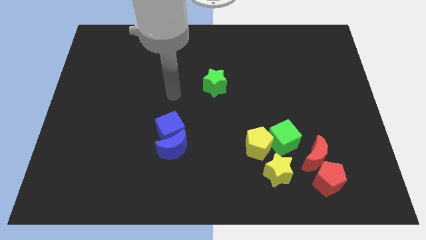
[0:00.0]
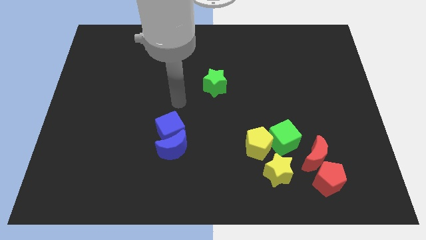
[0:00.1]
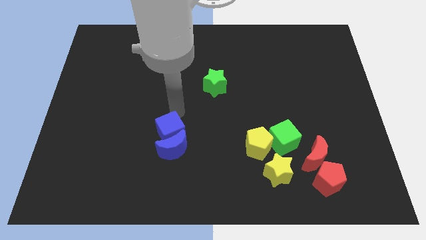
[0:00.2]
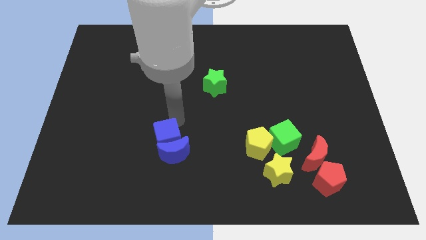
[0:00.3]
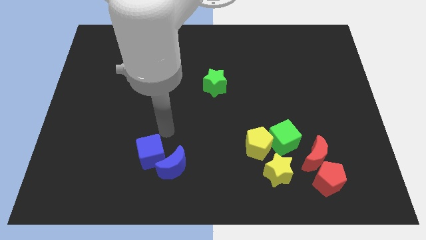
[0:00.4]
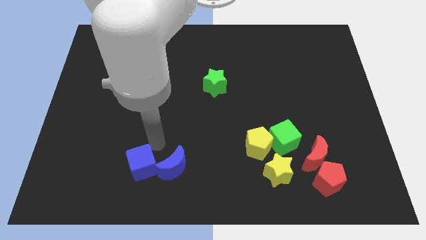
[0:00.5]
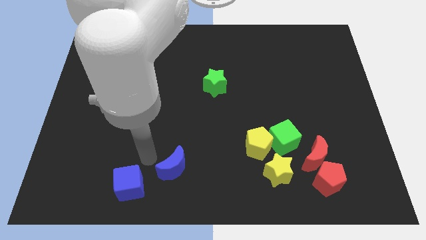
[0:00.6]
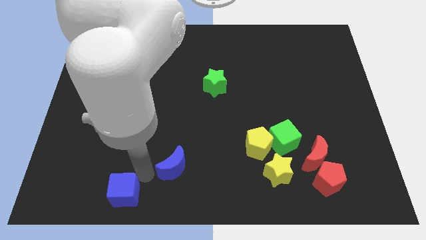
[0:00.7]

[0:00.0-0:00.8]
move the blue moon away from the blue cube

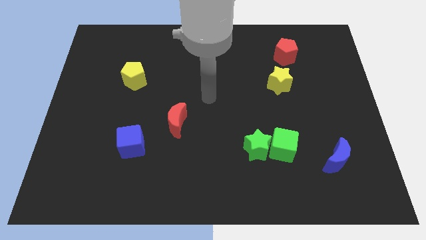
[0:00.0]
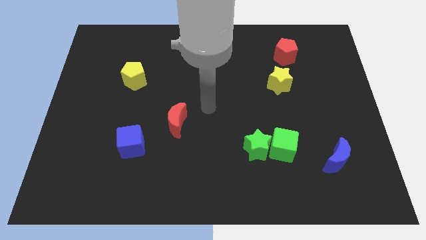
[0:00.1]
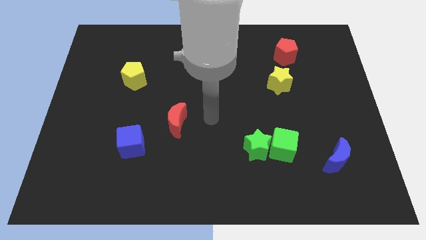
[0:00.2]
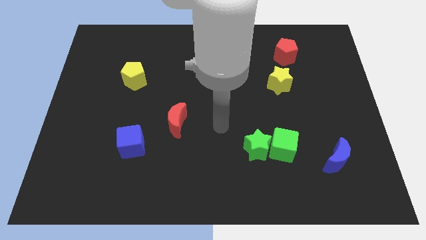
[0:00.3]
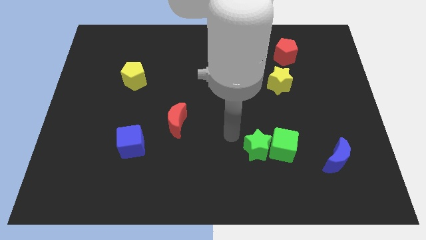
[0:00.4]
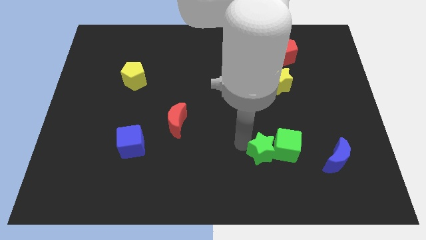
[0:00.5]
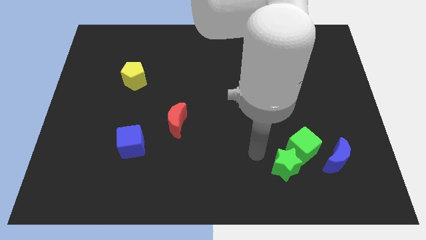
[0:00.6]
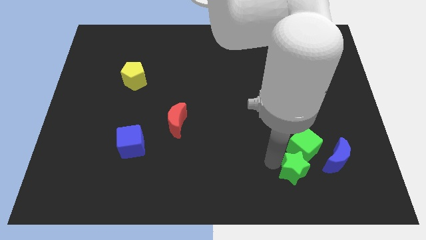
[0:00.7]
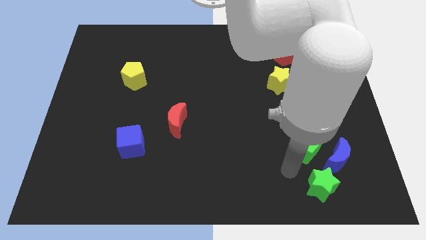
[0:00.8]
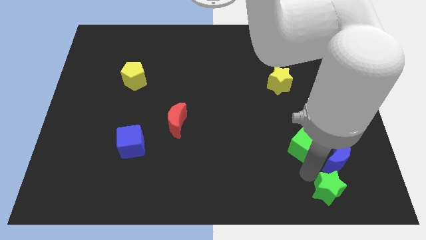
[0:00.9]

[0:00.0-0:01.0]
separate the green cube from the green star

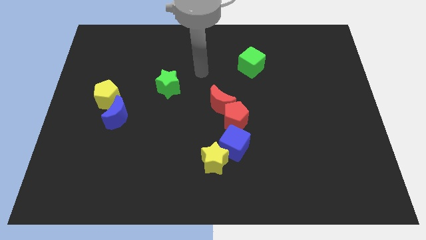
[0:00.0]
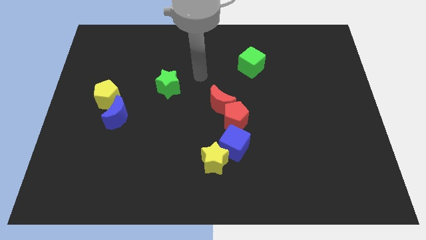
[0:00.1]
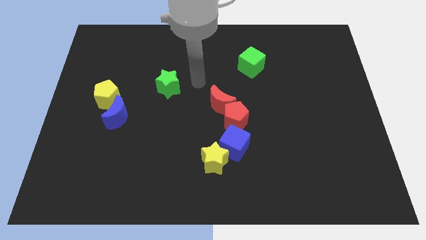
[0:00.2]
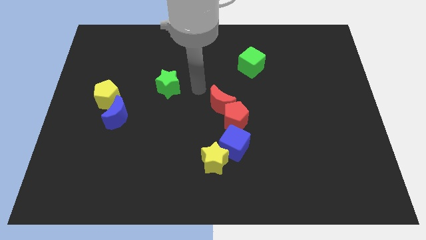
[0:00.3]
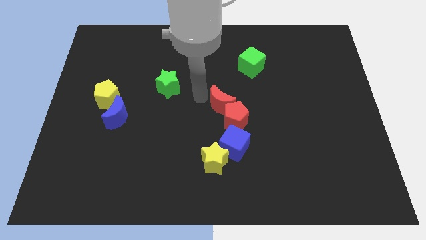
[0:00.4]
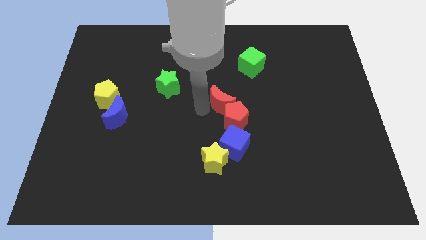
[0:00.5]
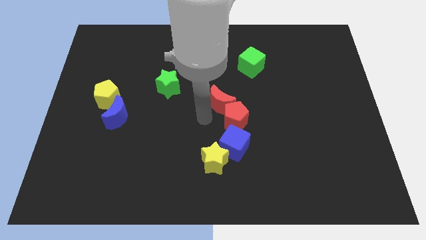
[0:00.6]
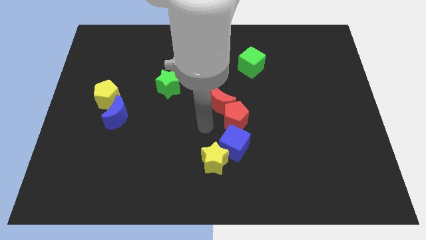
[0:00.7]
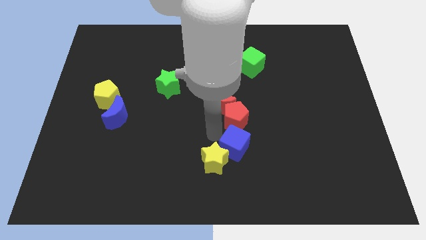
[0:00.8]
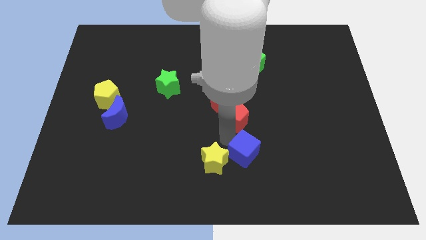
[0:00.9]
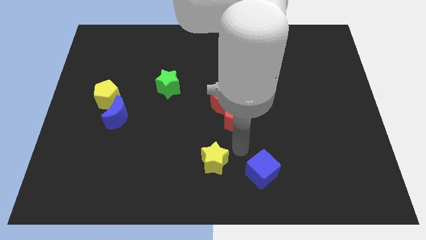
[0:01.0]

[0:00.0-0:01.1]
separate the yellow star from the blue cube

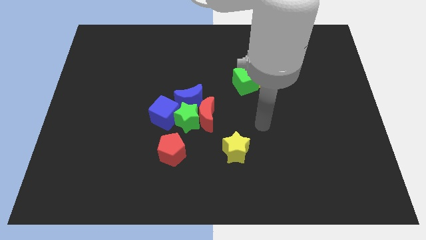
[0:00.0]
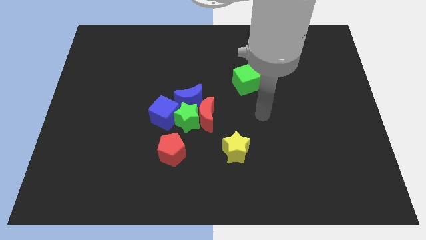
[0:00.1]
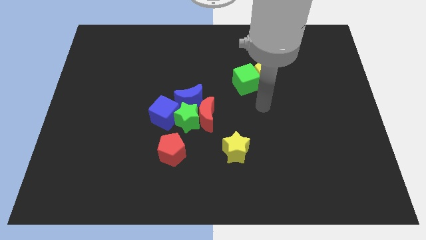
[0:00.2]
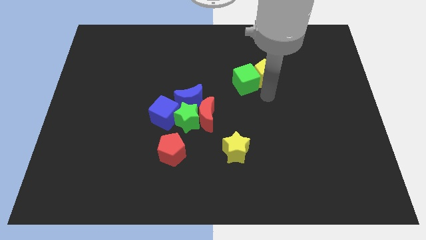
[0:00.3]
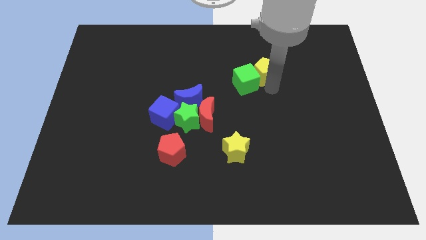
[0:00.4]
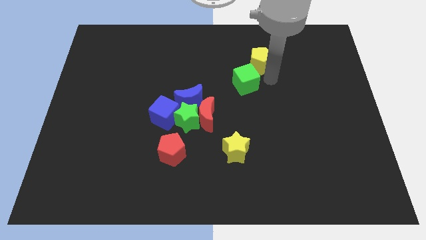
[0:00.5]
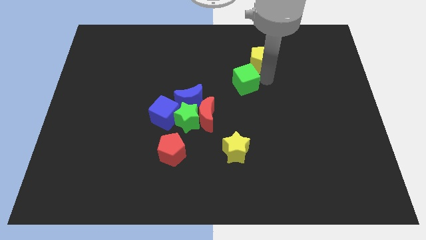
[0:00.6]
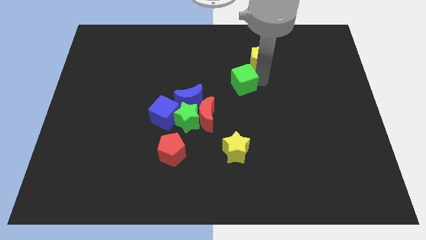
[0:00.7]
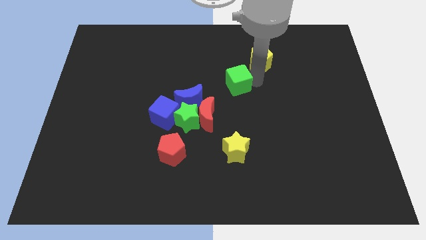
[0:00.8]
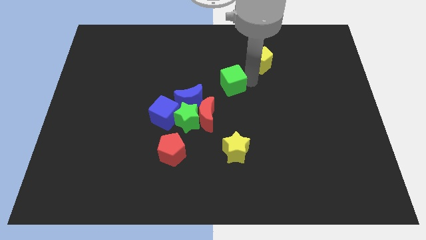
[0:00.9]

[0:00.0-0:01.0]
move the green cube away from the yellow pentagon

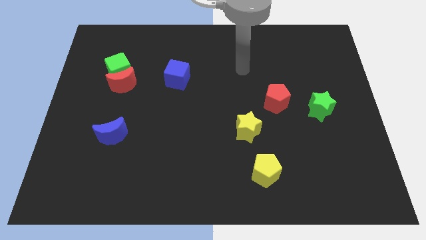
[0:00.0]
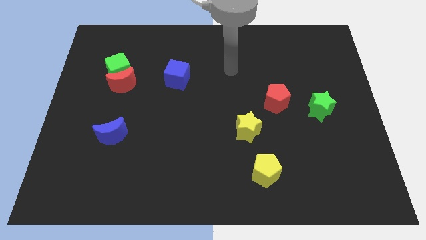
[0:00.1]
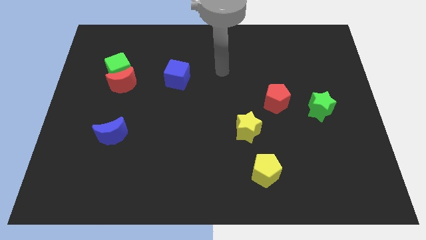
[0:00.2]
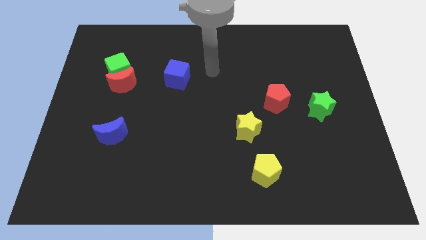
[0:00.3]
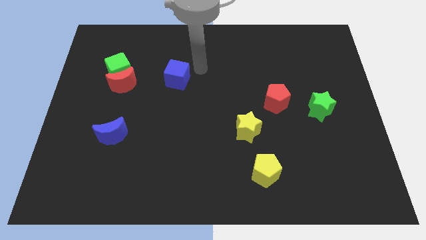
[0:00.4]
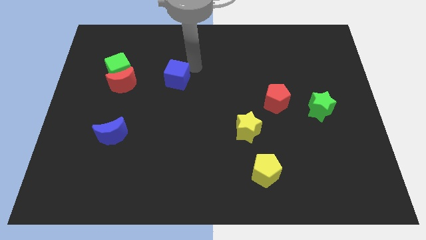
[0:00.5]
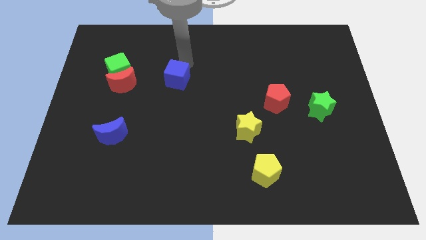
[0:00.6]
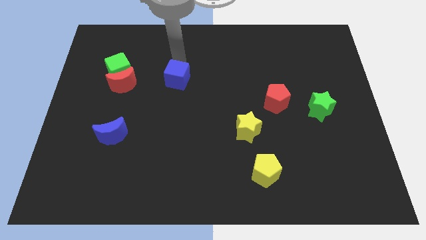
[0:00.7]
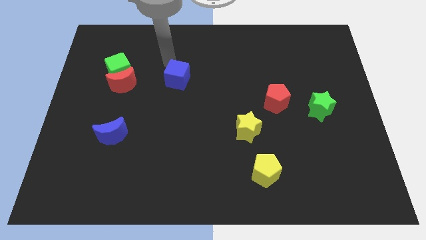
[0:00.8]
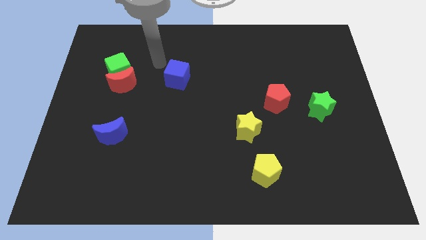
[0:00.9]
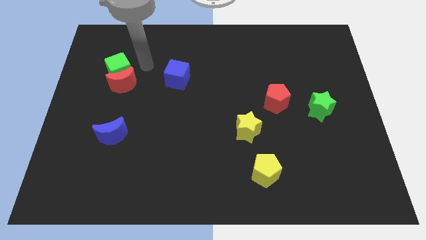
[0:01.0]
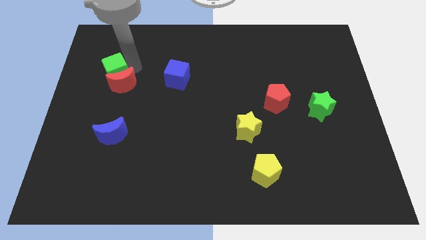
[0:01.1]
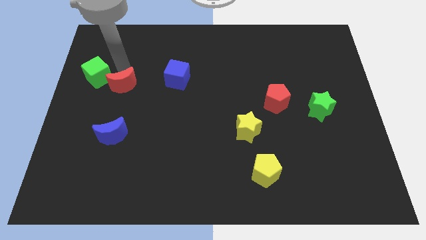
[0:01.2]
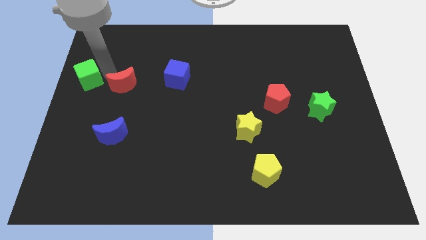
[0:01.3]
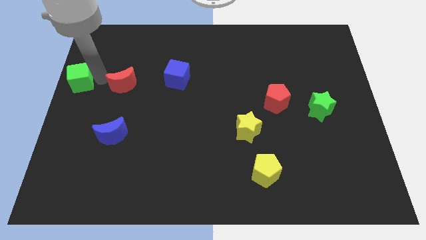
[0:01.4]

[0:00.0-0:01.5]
separate the red moon from the green cube

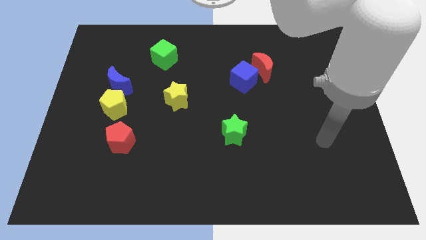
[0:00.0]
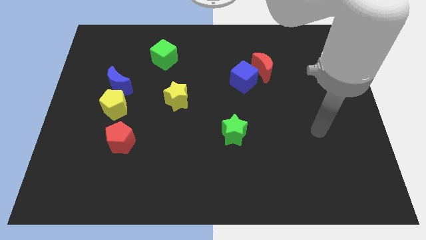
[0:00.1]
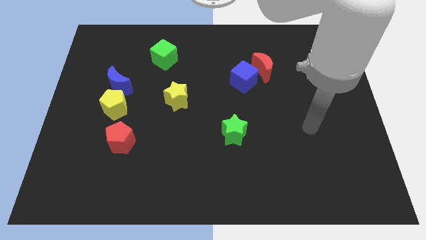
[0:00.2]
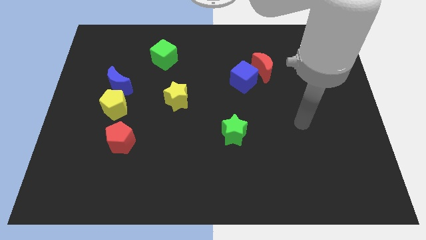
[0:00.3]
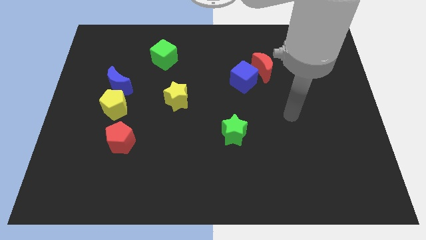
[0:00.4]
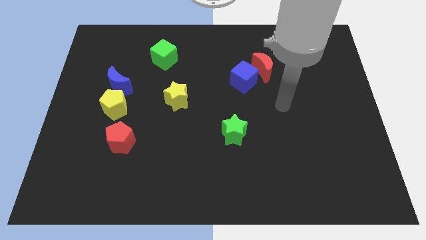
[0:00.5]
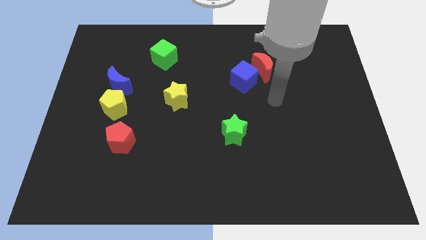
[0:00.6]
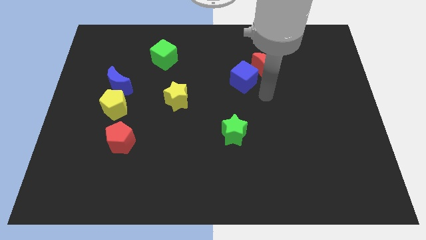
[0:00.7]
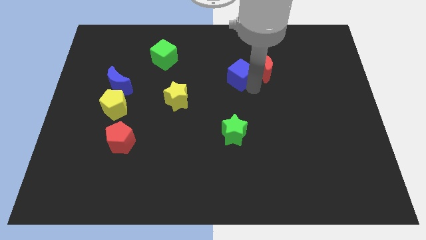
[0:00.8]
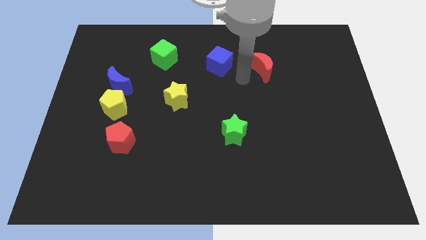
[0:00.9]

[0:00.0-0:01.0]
move the red moon away from the blue cube

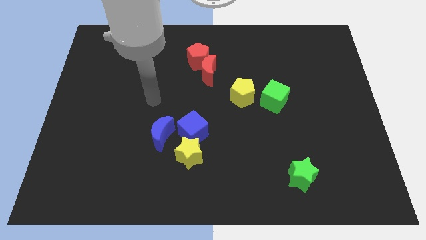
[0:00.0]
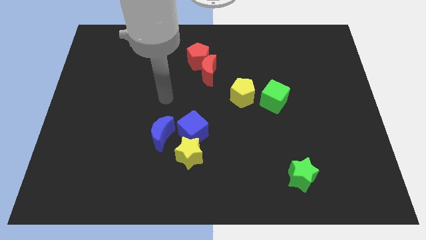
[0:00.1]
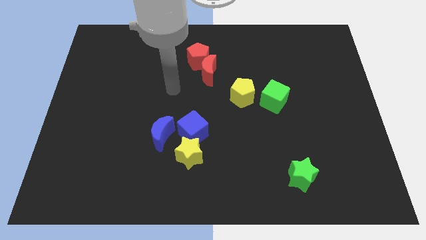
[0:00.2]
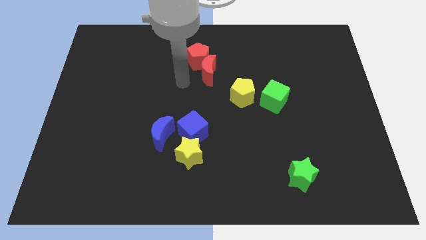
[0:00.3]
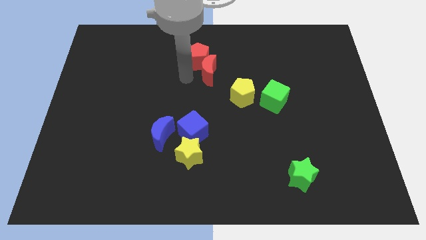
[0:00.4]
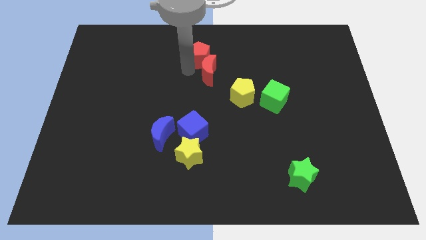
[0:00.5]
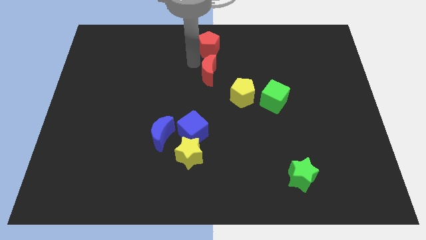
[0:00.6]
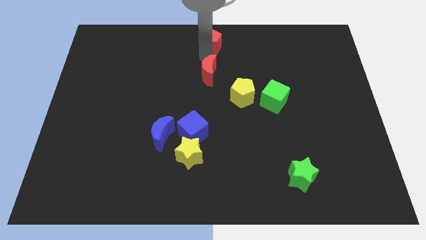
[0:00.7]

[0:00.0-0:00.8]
move the red moon away from the red pentagon

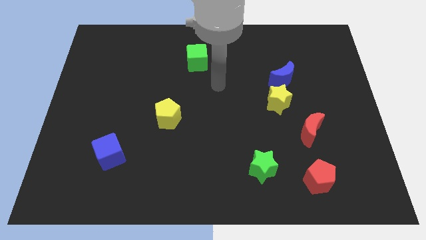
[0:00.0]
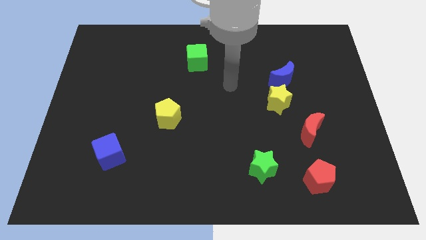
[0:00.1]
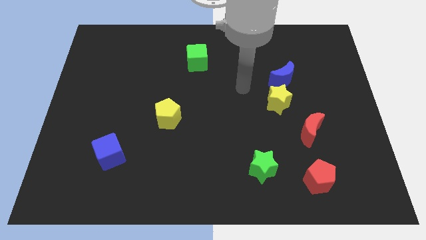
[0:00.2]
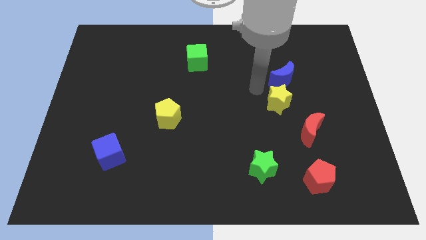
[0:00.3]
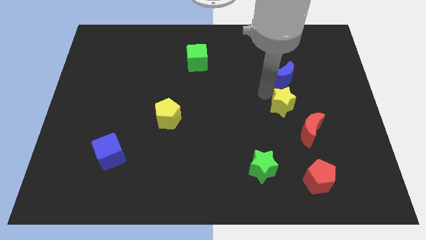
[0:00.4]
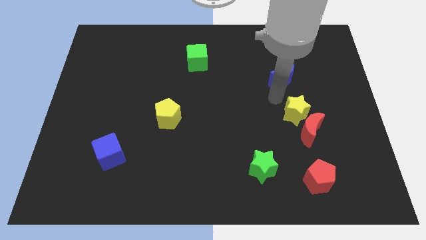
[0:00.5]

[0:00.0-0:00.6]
separate the blue moon from the yellow star

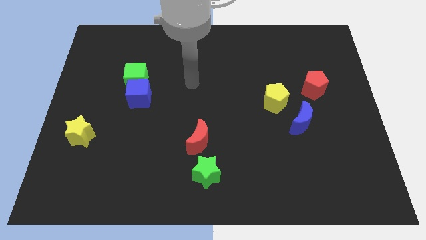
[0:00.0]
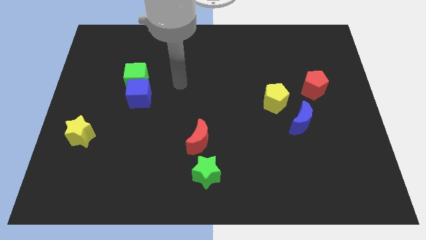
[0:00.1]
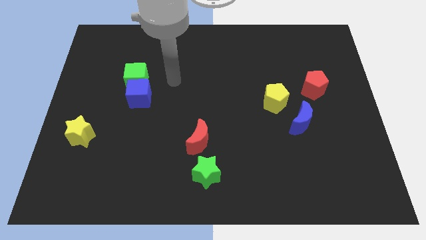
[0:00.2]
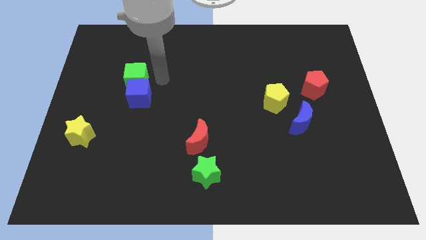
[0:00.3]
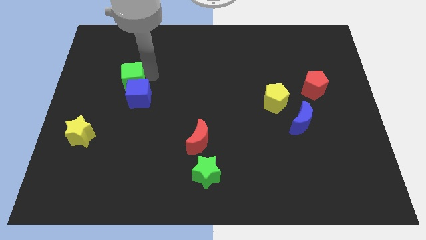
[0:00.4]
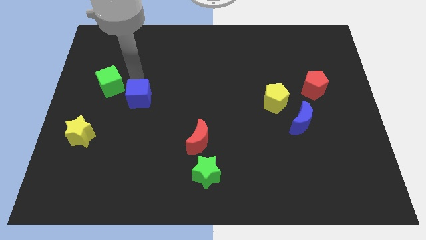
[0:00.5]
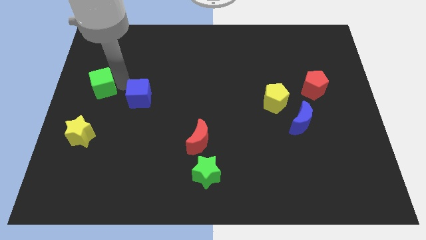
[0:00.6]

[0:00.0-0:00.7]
separate the blue cube from the green cube

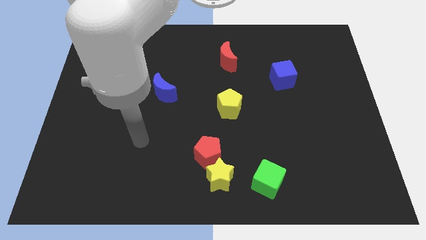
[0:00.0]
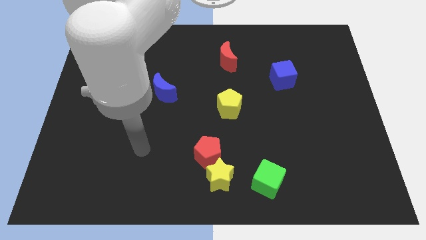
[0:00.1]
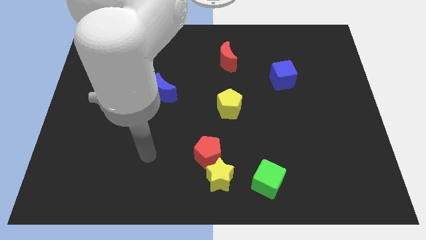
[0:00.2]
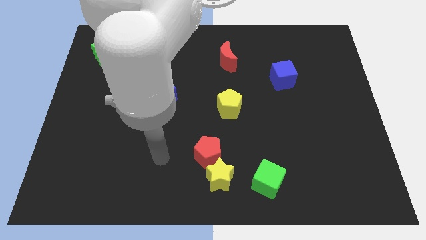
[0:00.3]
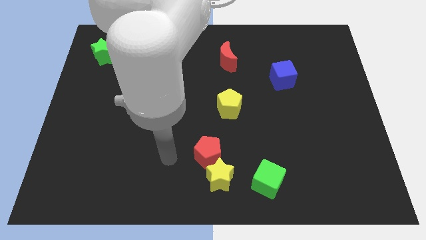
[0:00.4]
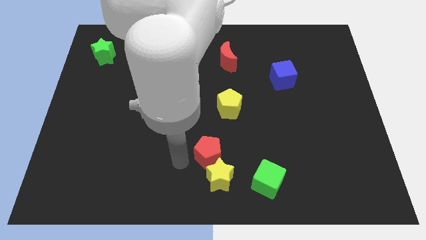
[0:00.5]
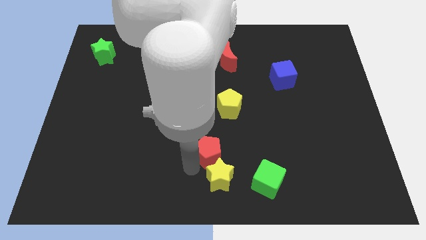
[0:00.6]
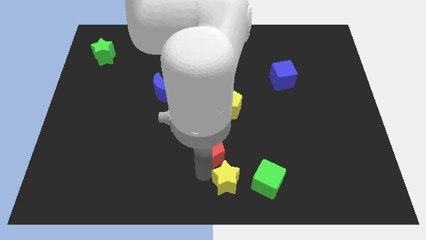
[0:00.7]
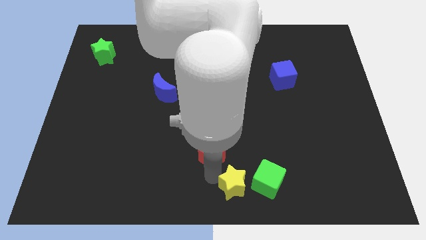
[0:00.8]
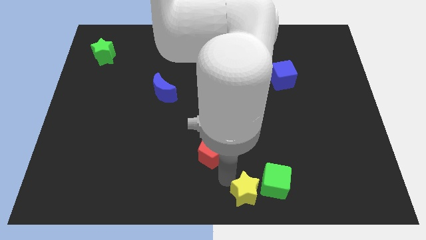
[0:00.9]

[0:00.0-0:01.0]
separate the red pentagon from the yellow star
